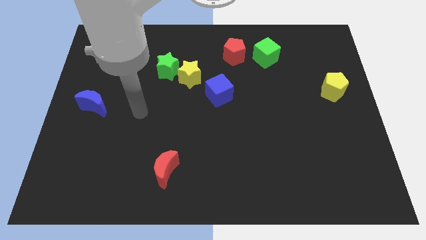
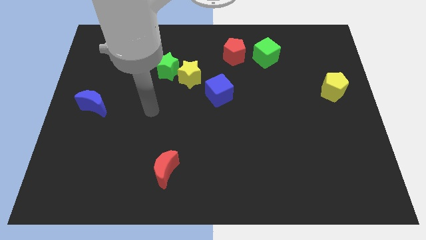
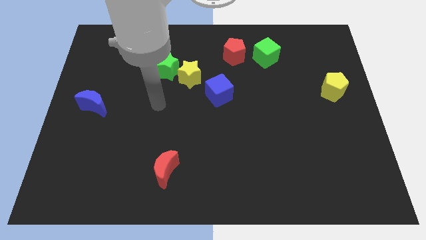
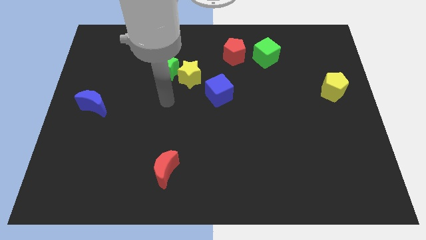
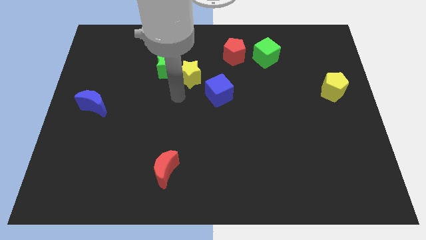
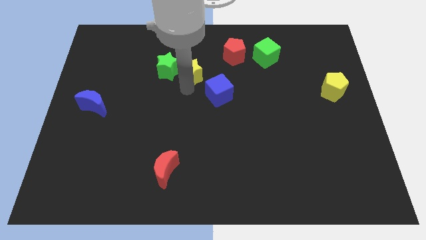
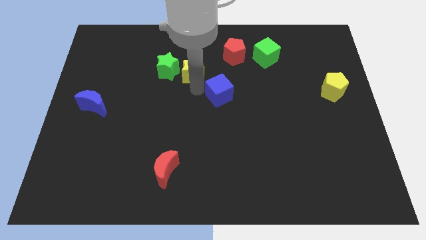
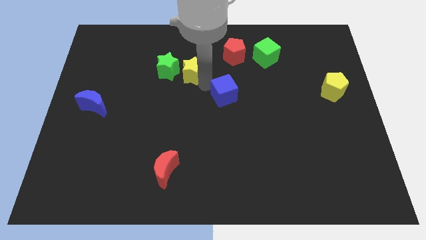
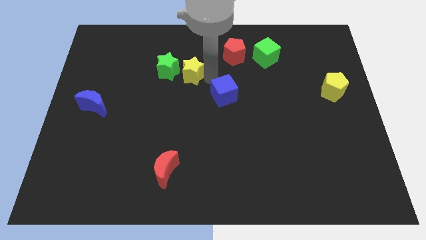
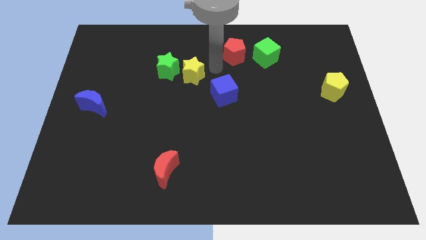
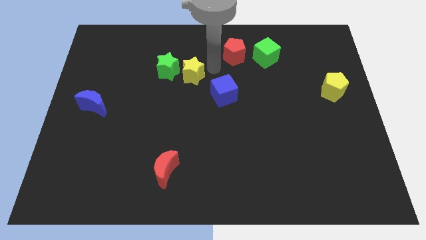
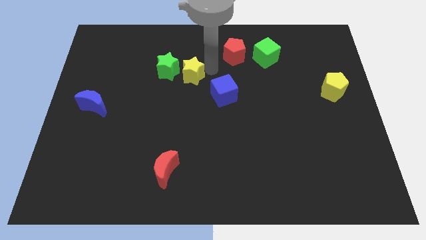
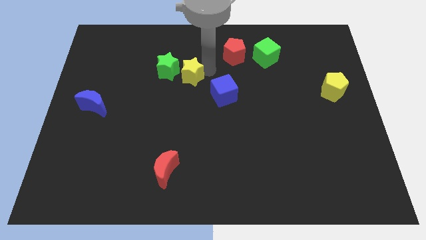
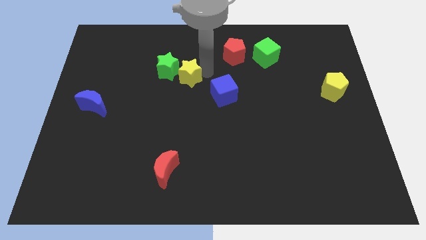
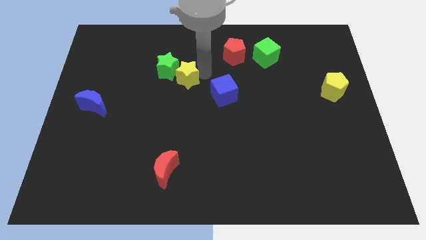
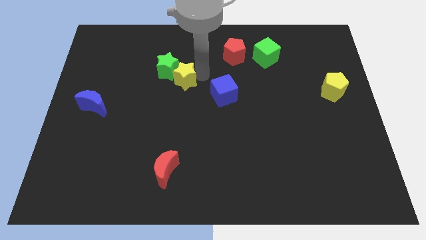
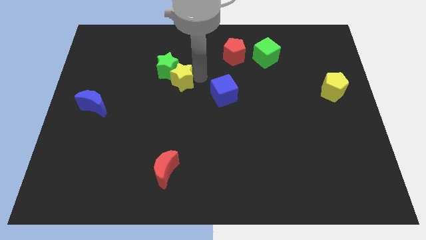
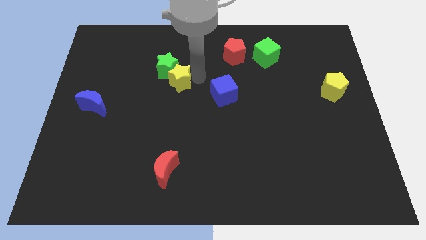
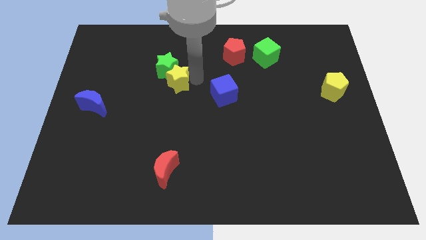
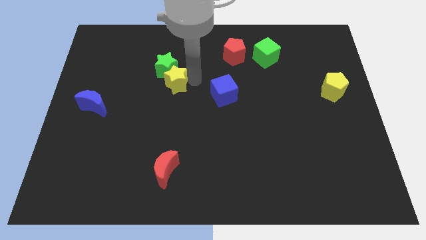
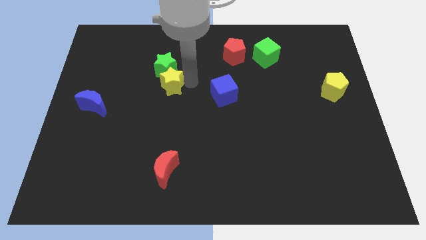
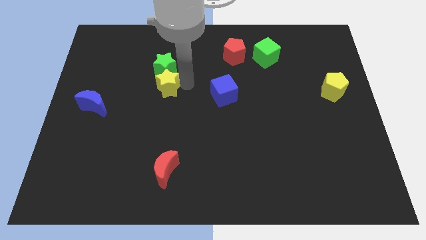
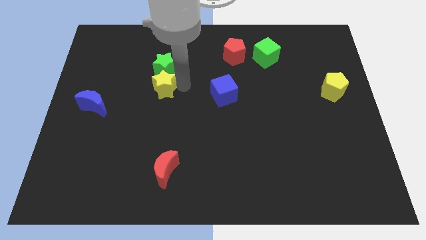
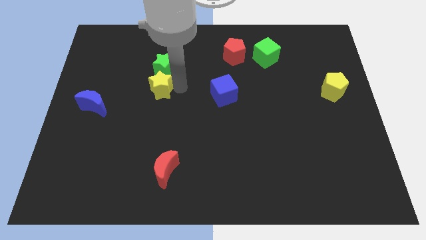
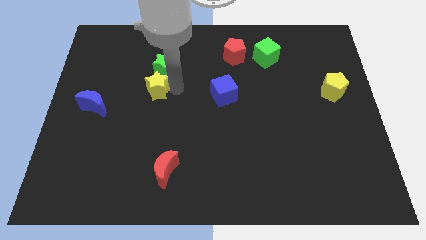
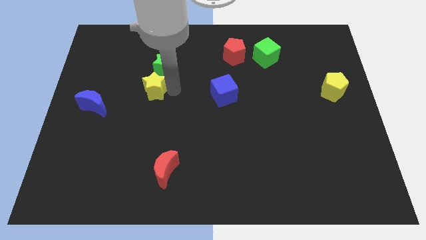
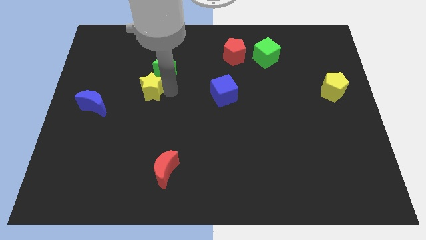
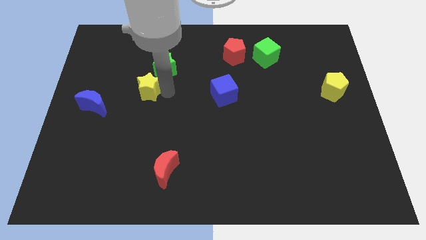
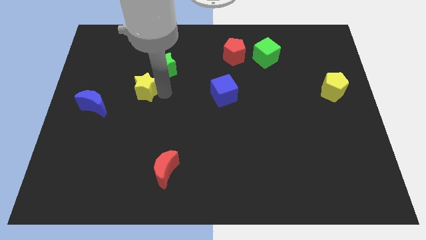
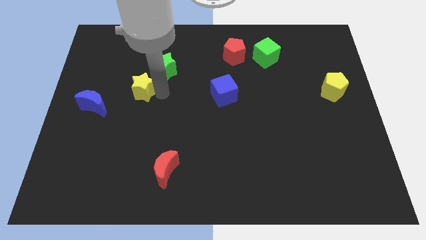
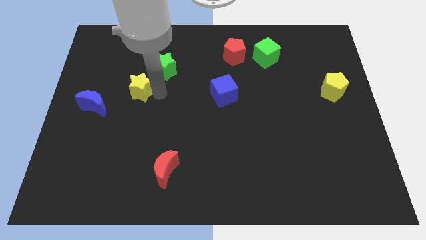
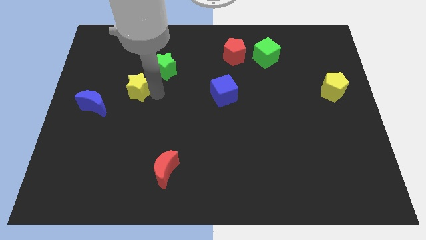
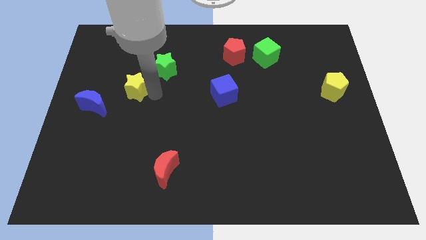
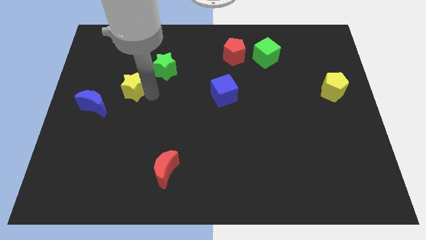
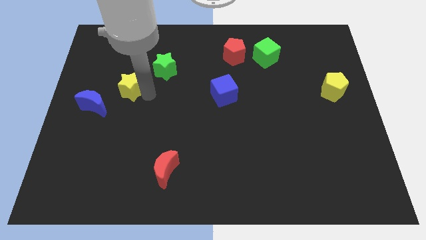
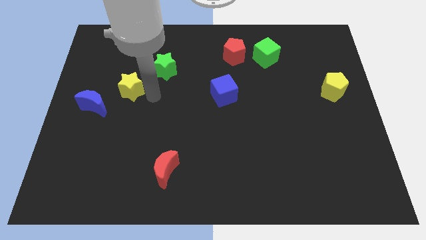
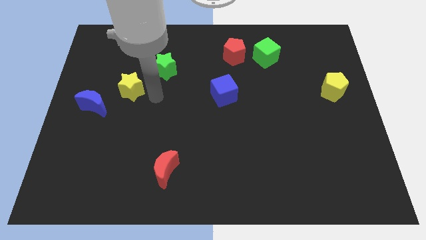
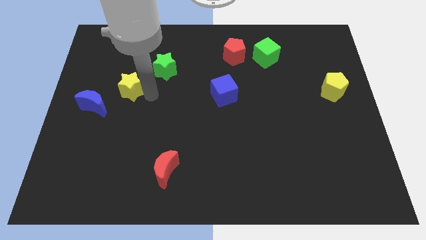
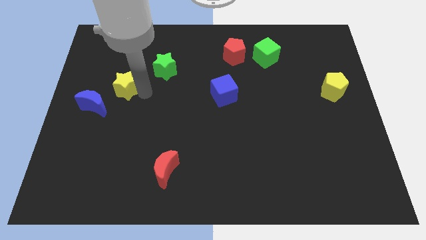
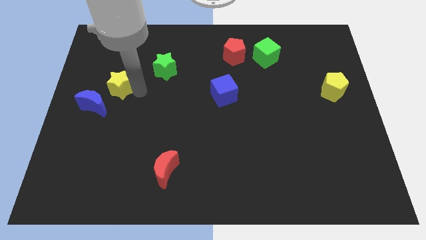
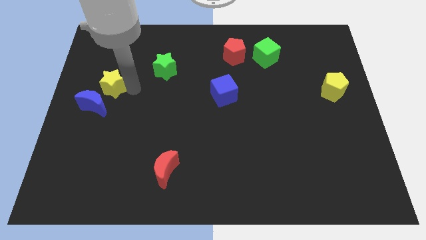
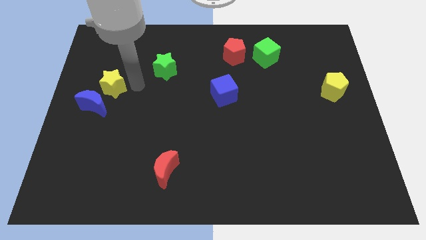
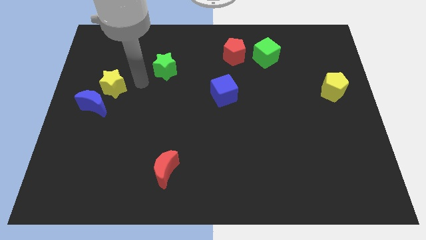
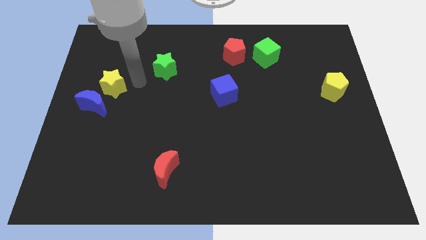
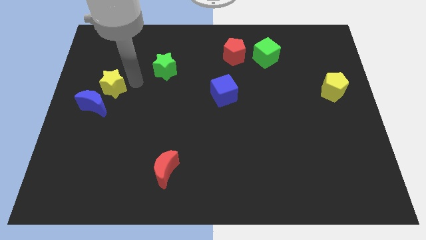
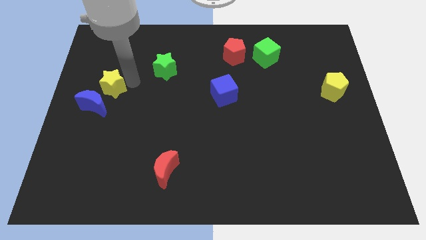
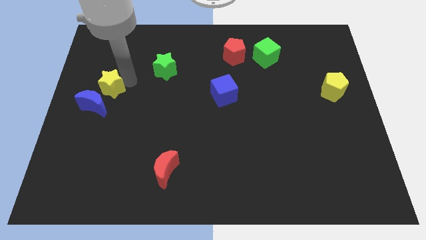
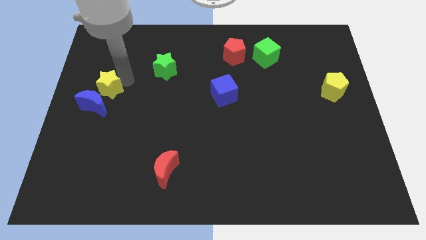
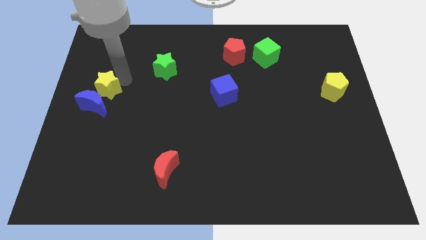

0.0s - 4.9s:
move the yellow star to the left side

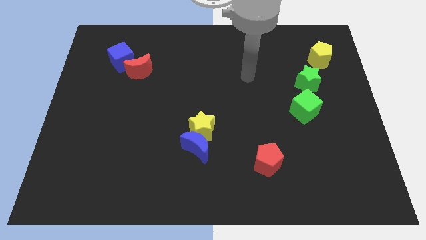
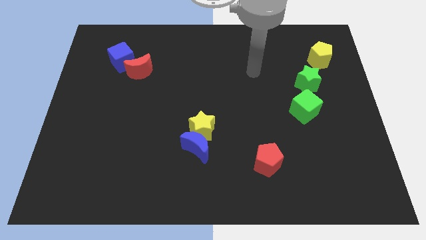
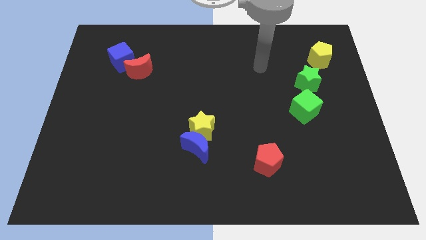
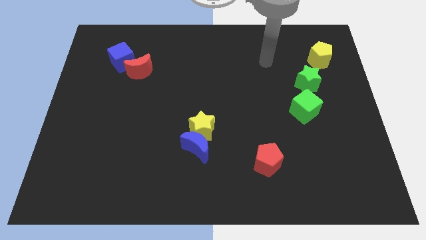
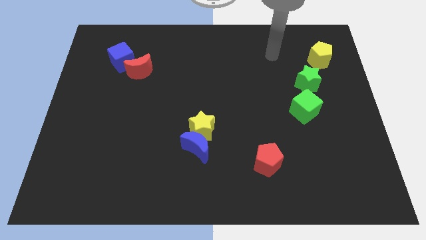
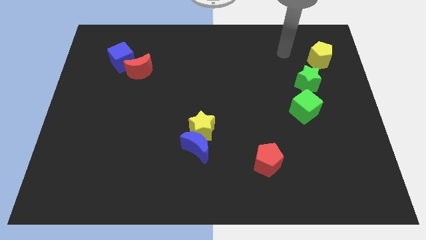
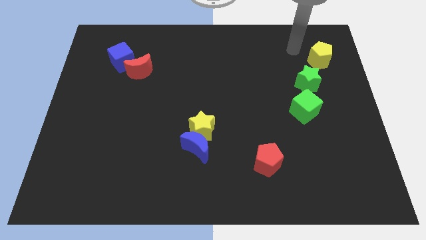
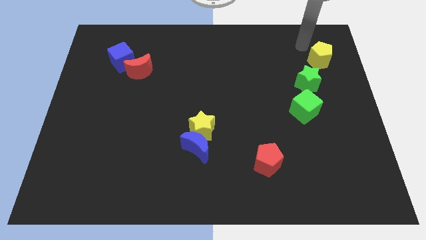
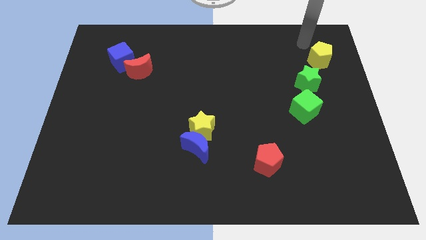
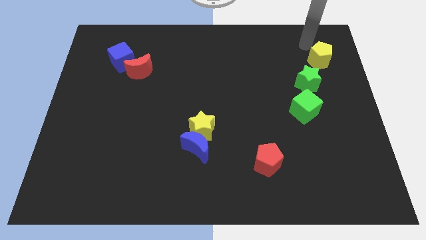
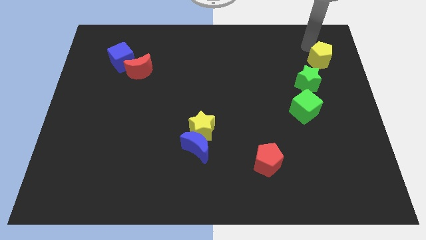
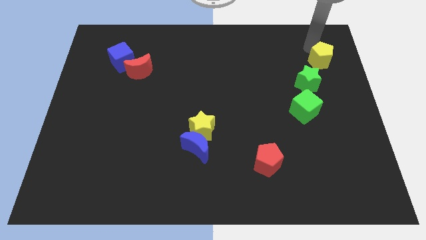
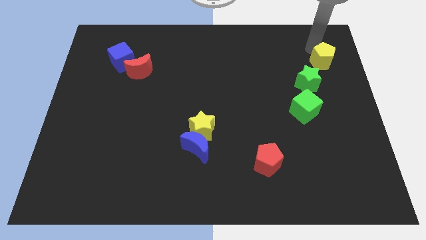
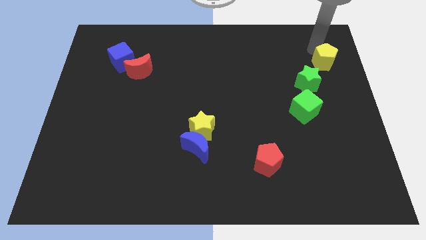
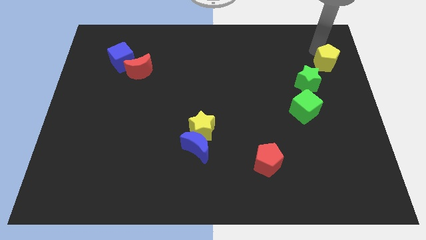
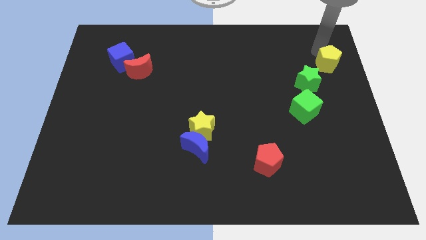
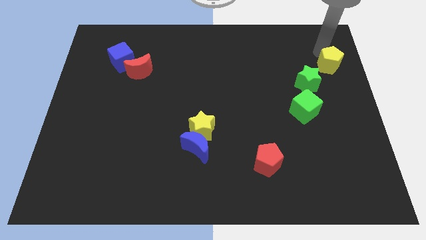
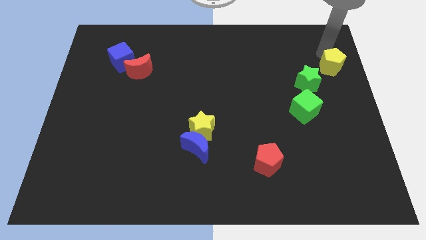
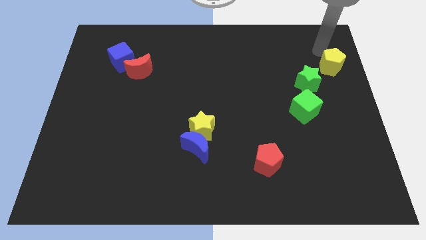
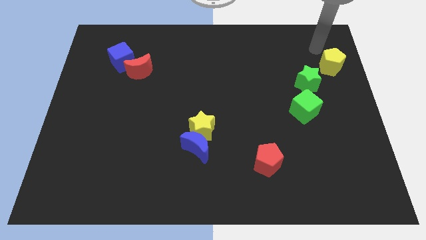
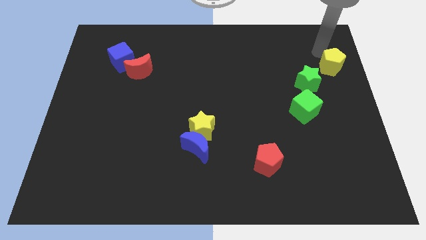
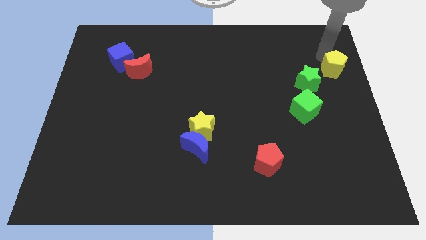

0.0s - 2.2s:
slide the yellow pentagon to the right side of the board
